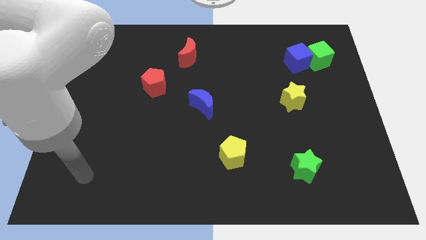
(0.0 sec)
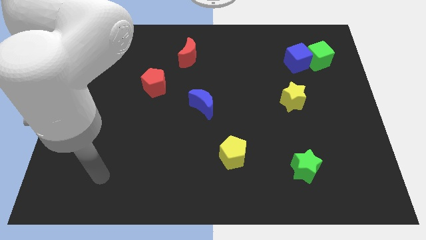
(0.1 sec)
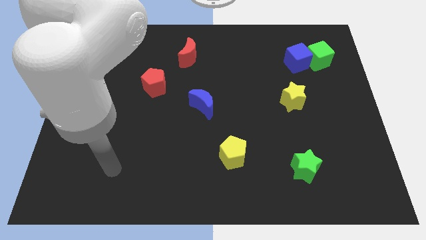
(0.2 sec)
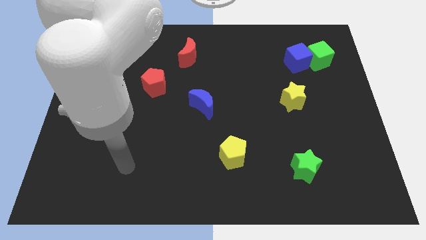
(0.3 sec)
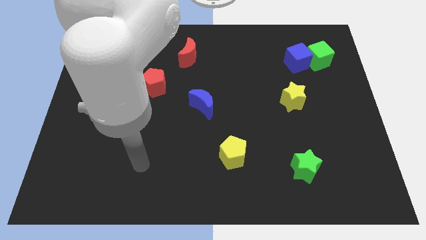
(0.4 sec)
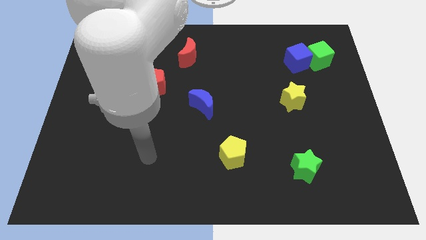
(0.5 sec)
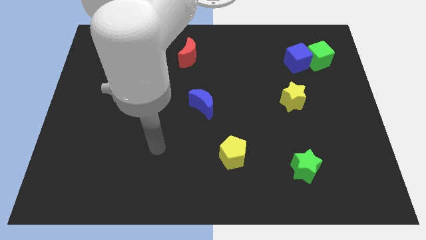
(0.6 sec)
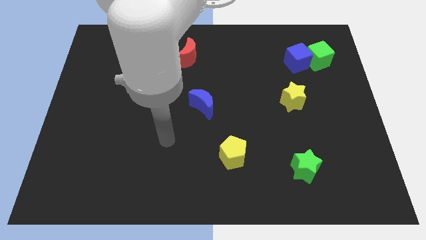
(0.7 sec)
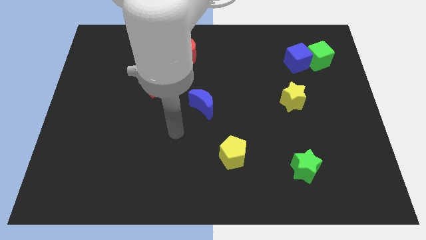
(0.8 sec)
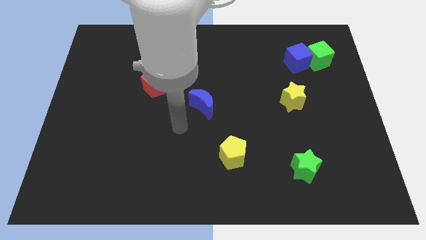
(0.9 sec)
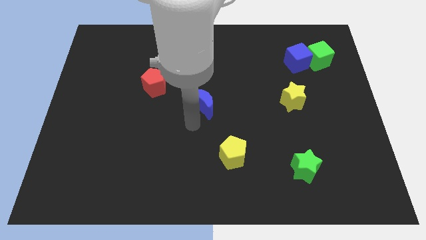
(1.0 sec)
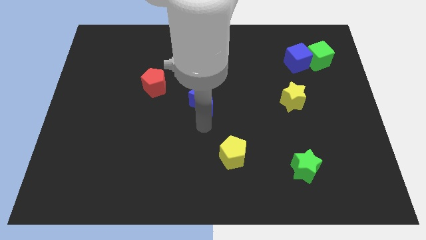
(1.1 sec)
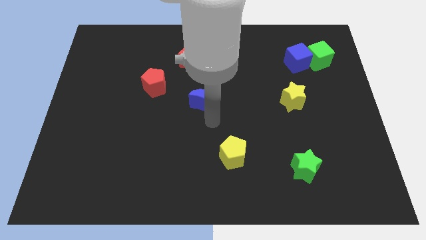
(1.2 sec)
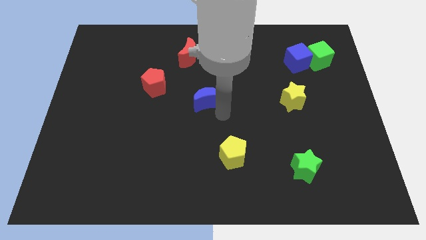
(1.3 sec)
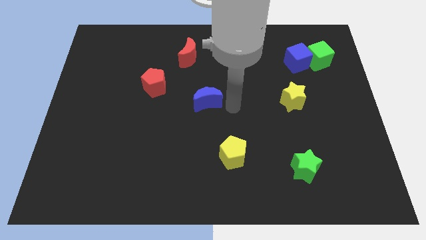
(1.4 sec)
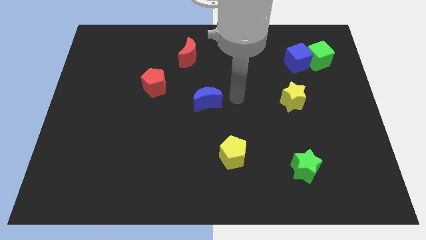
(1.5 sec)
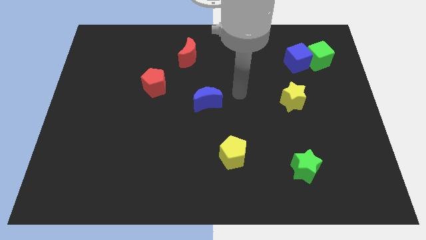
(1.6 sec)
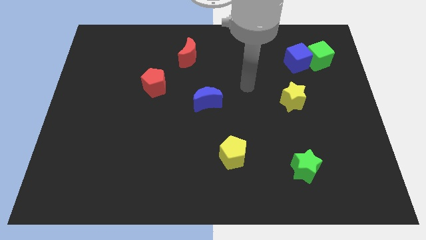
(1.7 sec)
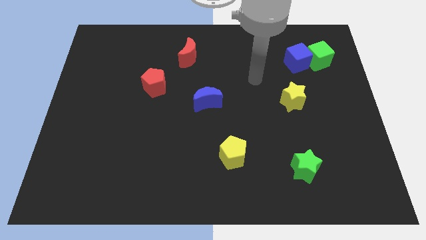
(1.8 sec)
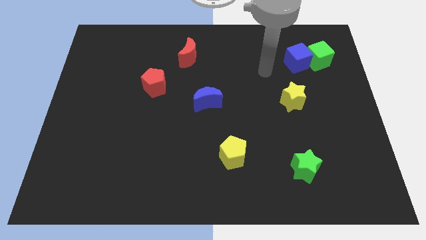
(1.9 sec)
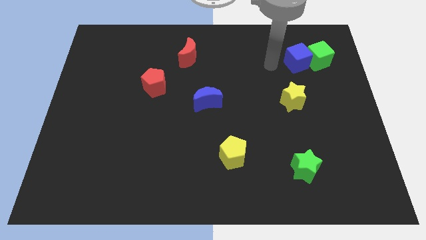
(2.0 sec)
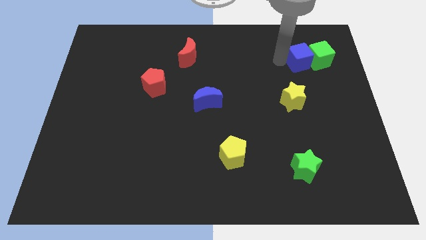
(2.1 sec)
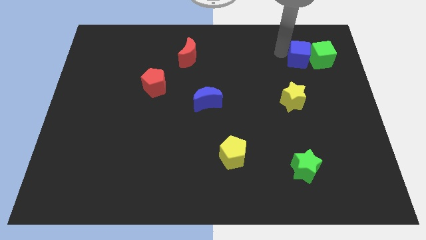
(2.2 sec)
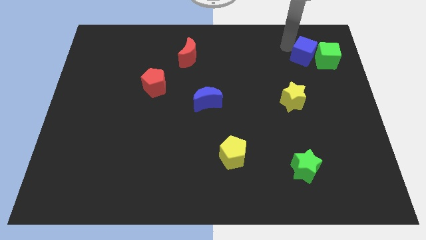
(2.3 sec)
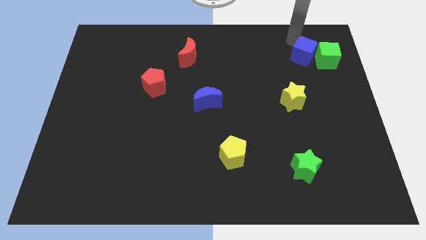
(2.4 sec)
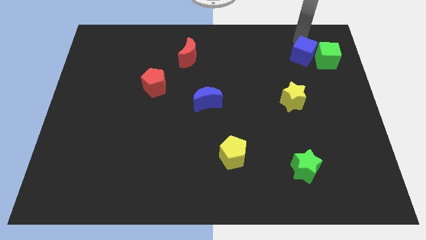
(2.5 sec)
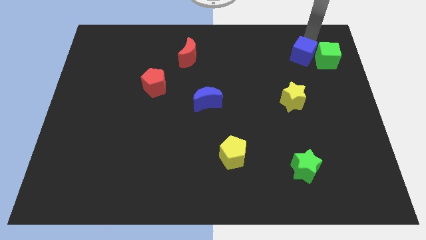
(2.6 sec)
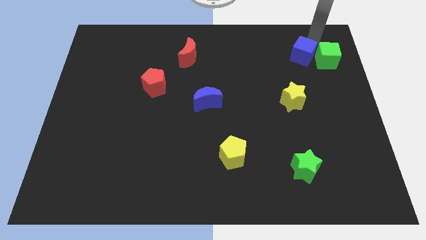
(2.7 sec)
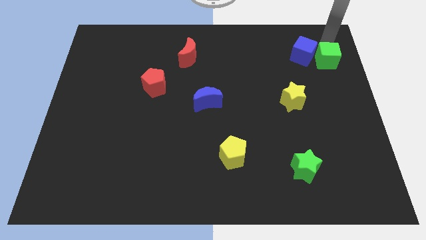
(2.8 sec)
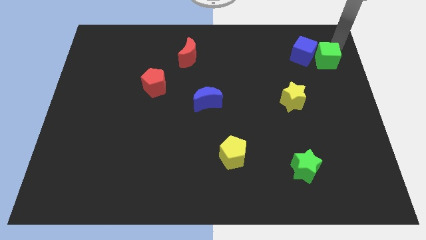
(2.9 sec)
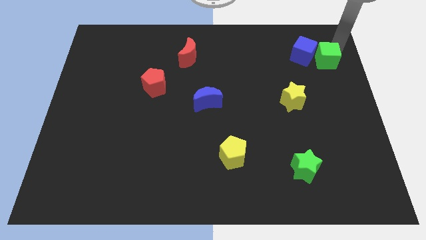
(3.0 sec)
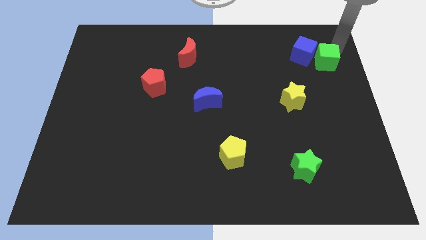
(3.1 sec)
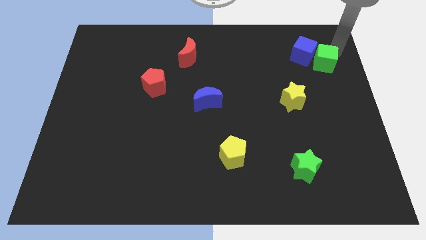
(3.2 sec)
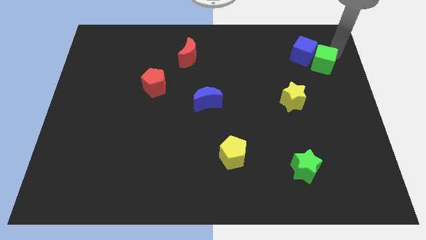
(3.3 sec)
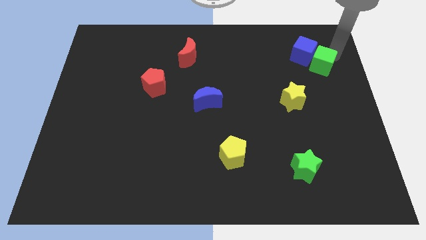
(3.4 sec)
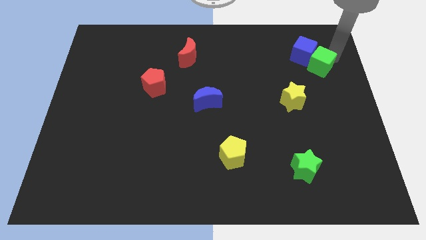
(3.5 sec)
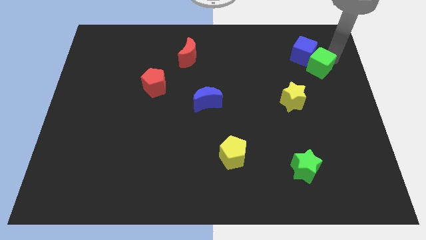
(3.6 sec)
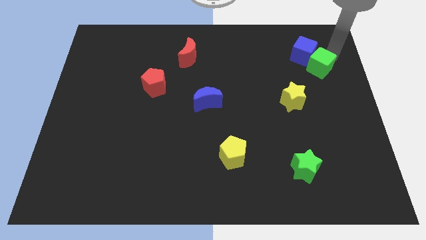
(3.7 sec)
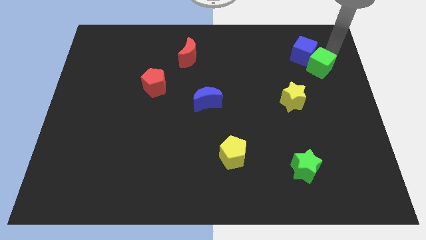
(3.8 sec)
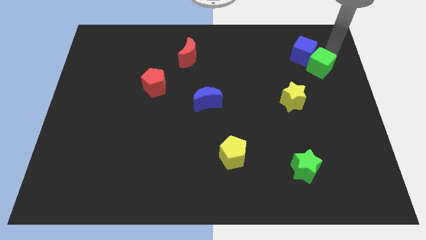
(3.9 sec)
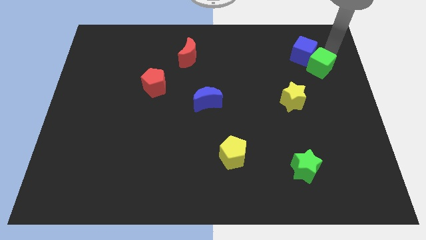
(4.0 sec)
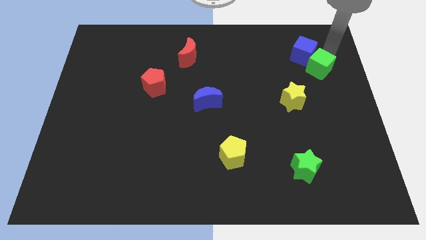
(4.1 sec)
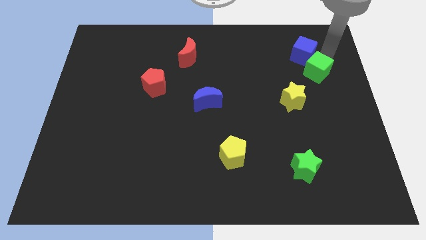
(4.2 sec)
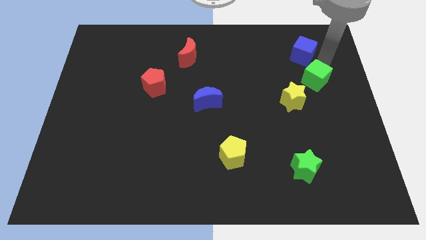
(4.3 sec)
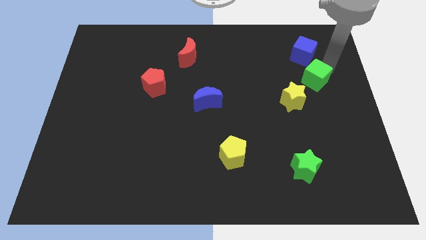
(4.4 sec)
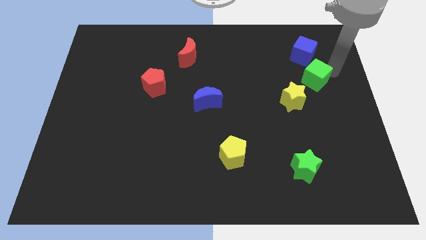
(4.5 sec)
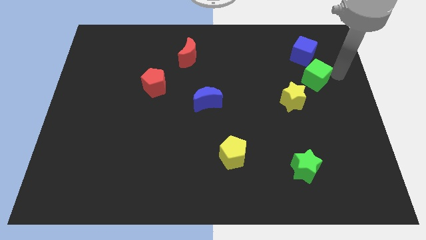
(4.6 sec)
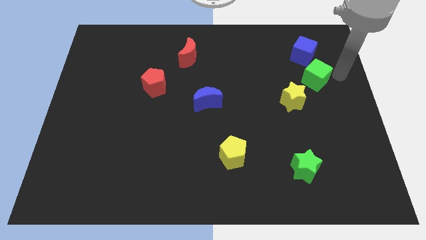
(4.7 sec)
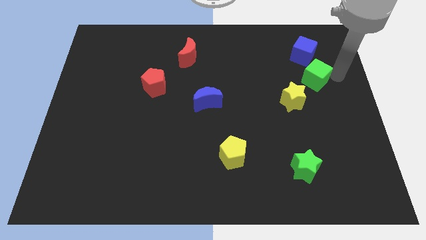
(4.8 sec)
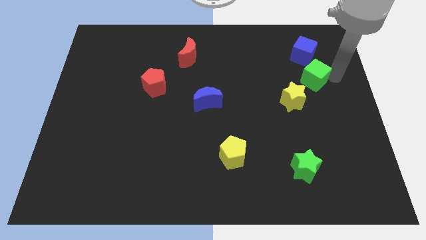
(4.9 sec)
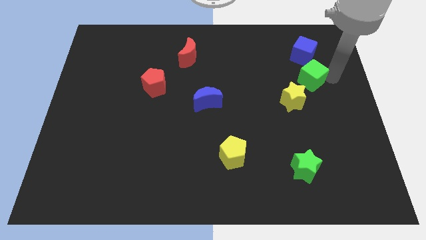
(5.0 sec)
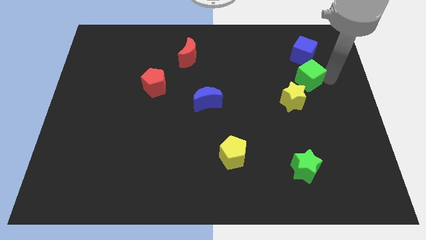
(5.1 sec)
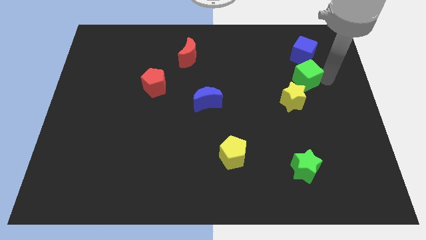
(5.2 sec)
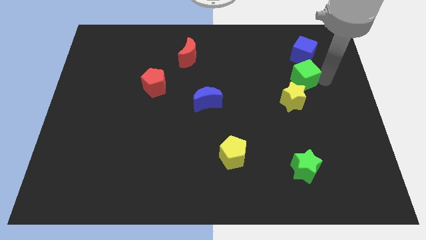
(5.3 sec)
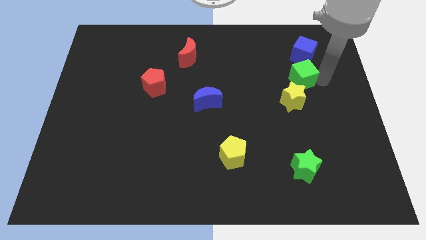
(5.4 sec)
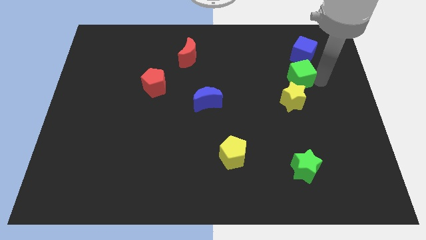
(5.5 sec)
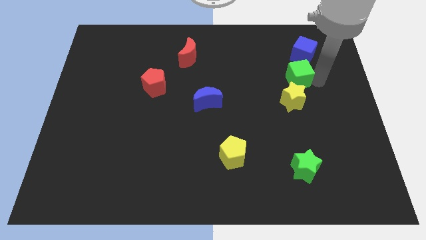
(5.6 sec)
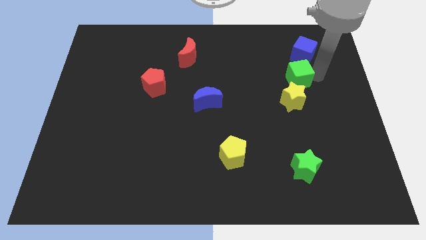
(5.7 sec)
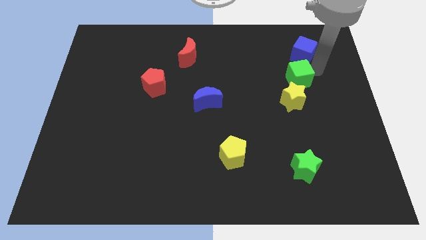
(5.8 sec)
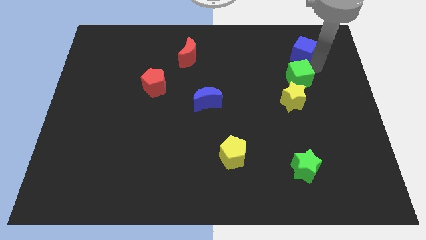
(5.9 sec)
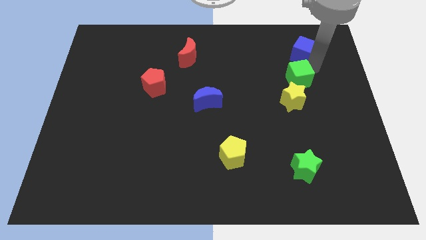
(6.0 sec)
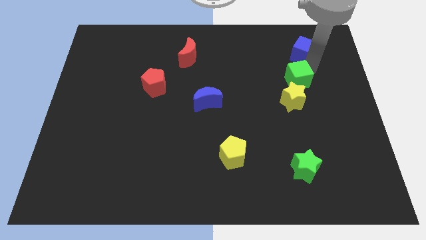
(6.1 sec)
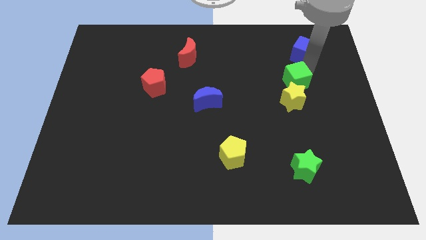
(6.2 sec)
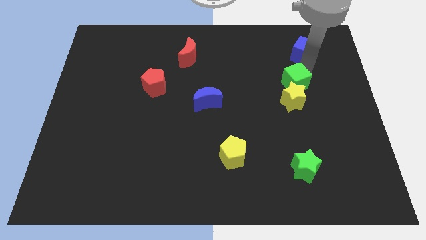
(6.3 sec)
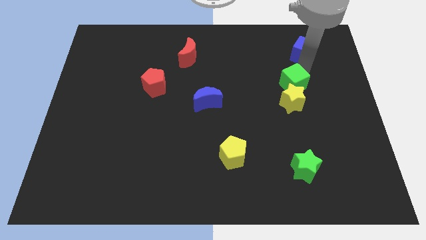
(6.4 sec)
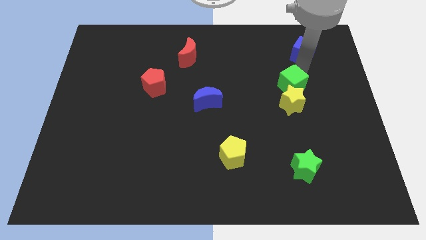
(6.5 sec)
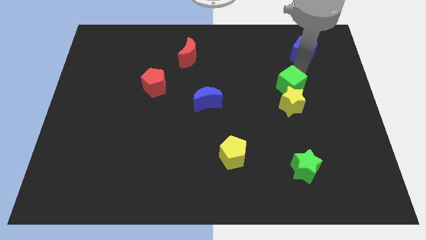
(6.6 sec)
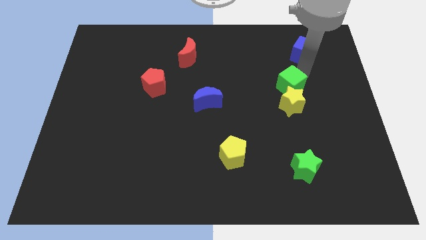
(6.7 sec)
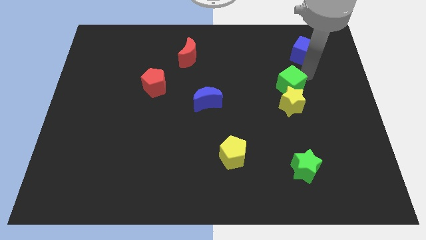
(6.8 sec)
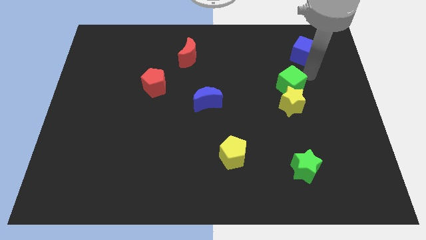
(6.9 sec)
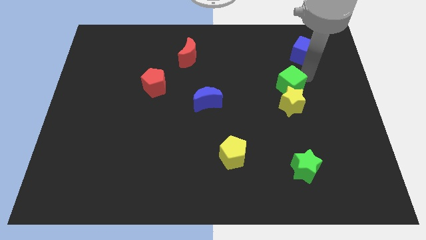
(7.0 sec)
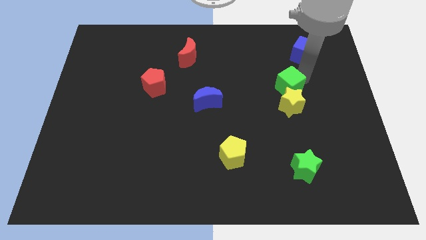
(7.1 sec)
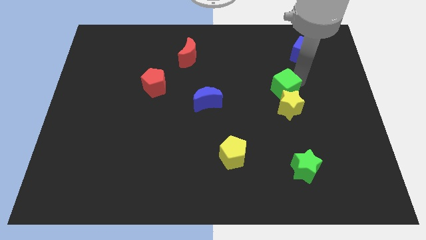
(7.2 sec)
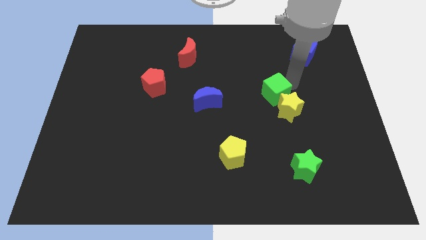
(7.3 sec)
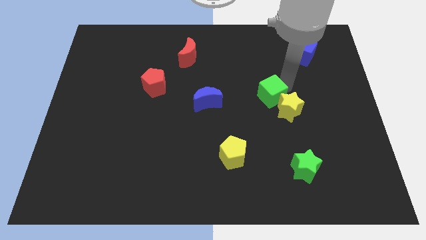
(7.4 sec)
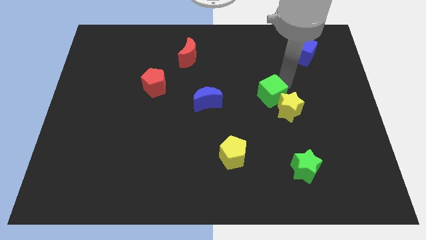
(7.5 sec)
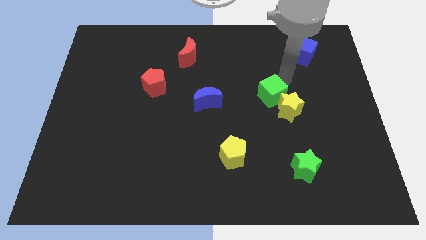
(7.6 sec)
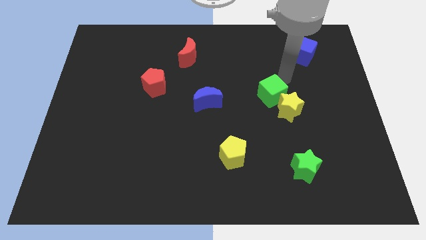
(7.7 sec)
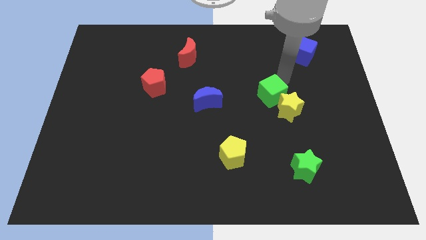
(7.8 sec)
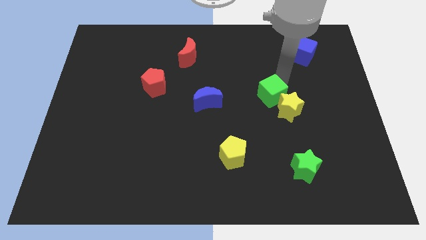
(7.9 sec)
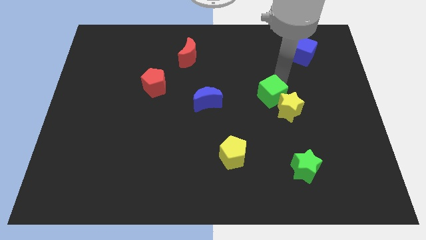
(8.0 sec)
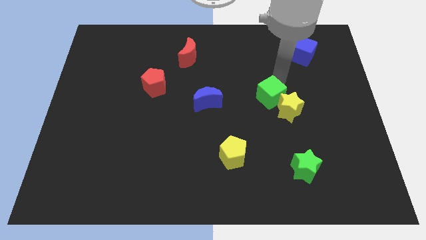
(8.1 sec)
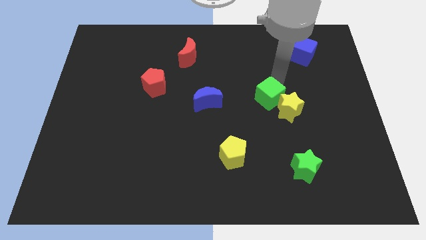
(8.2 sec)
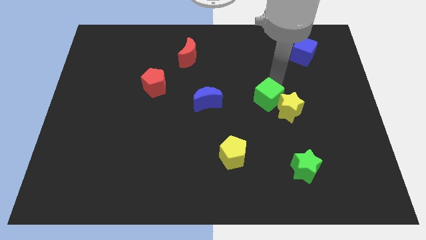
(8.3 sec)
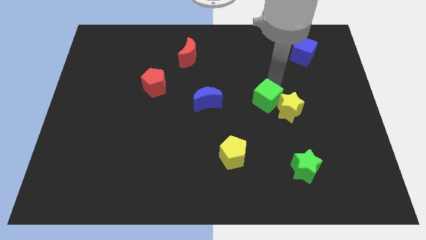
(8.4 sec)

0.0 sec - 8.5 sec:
slide the green cube down and left diagonally
